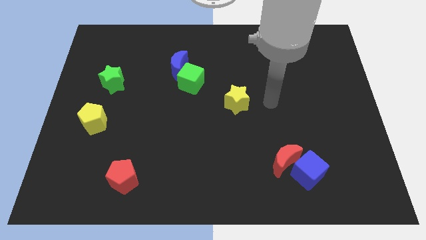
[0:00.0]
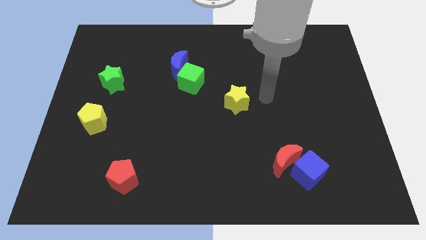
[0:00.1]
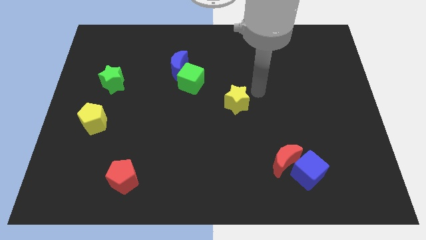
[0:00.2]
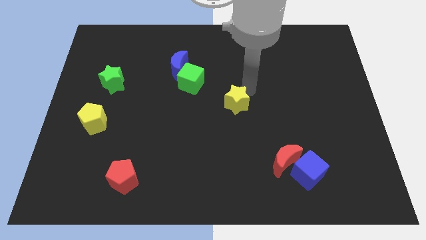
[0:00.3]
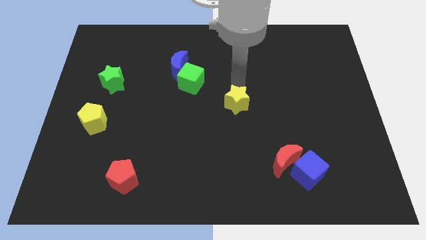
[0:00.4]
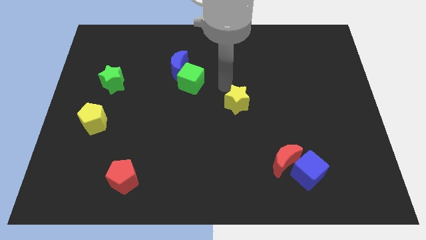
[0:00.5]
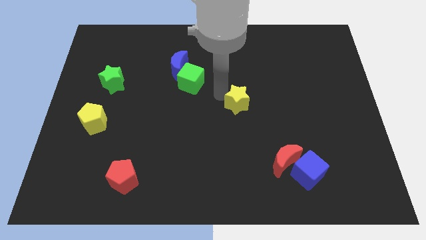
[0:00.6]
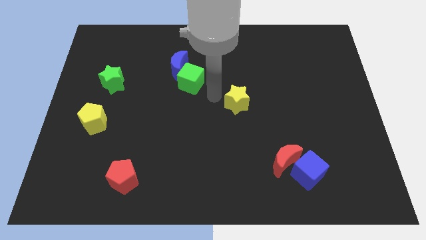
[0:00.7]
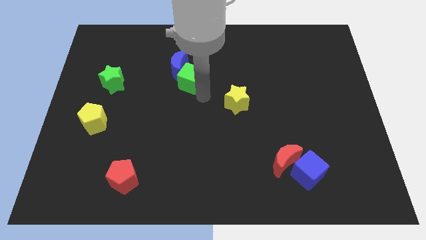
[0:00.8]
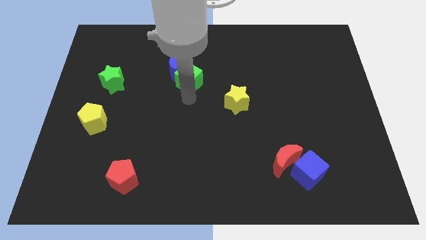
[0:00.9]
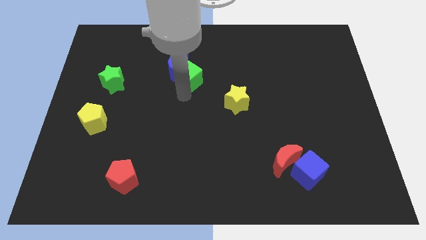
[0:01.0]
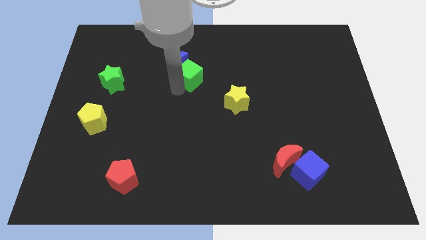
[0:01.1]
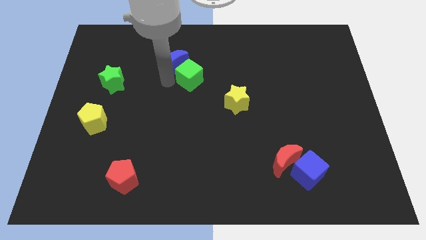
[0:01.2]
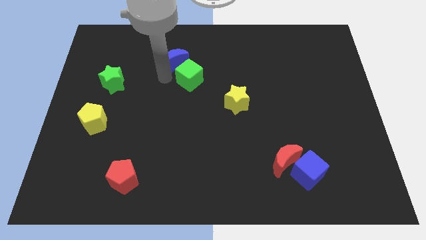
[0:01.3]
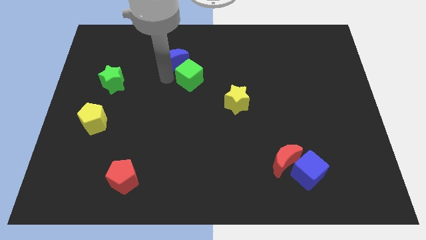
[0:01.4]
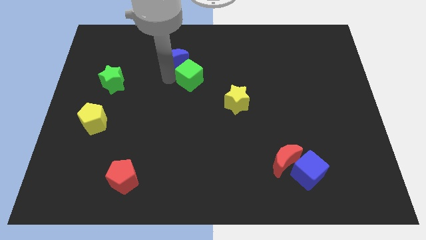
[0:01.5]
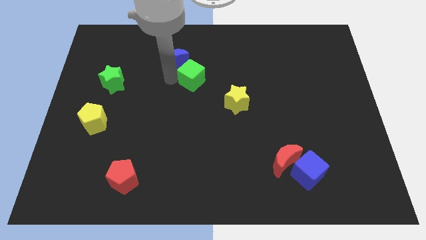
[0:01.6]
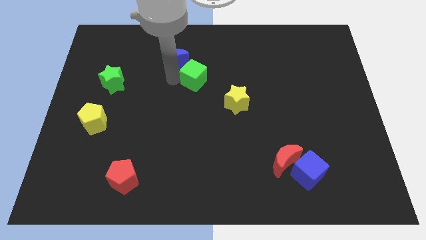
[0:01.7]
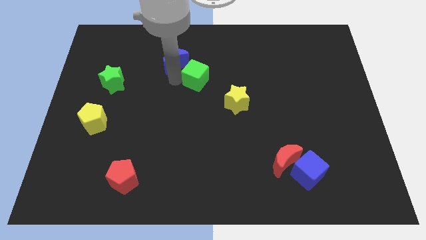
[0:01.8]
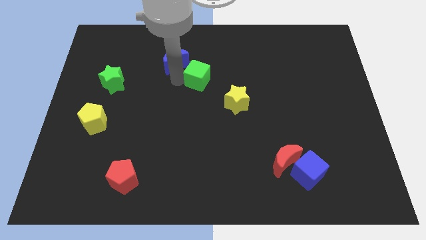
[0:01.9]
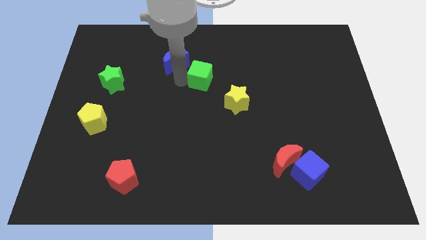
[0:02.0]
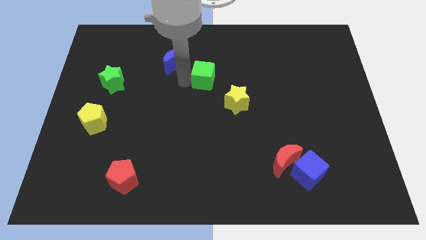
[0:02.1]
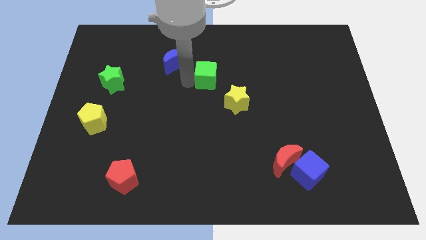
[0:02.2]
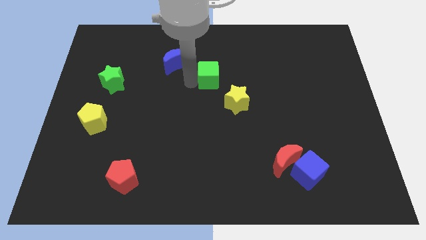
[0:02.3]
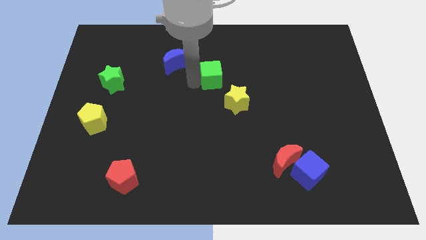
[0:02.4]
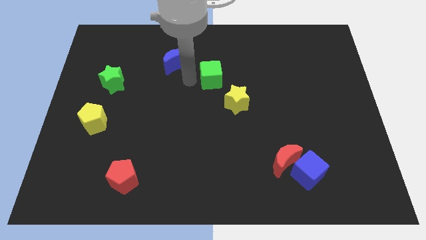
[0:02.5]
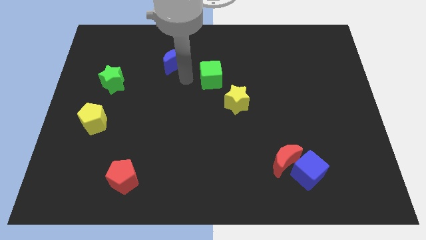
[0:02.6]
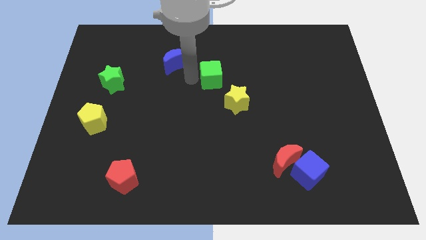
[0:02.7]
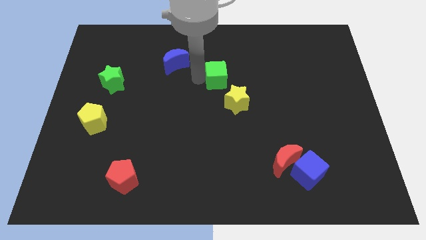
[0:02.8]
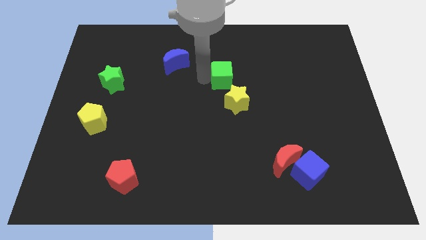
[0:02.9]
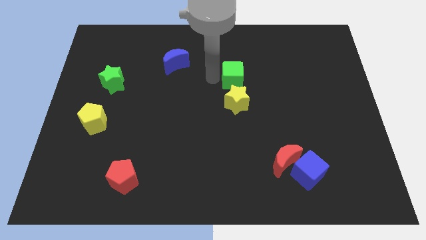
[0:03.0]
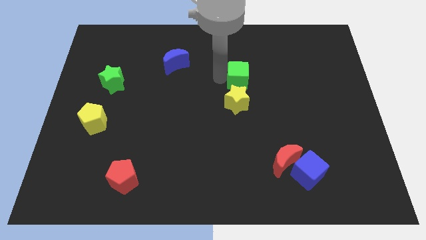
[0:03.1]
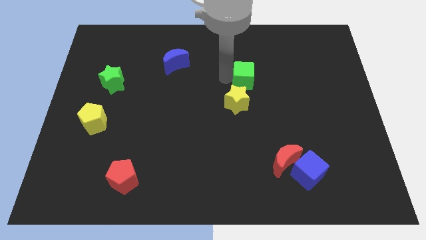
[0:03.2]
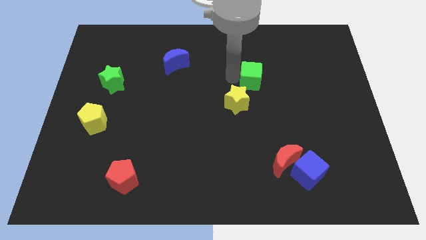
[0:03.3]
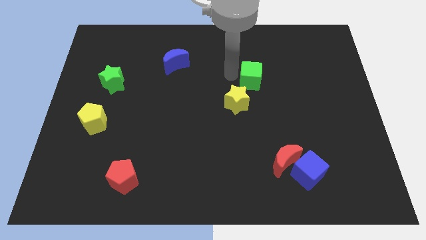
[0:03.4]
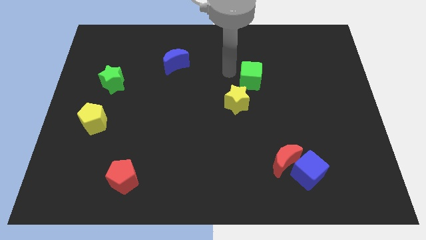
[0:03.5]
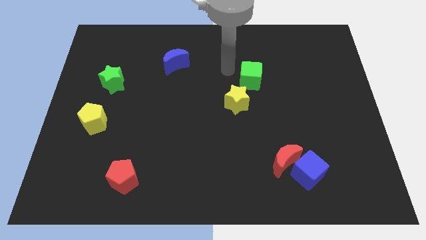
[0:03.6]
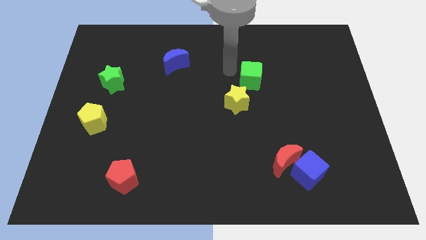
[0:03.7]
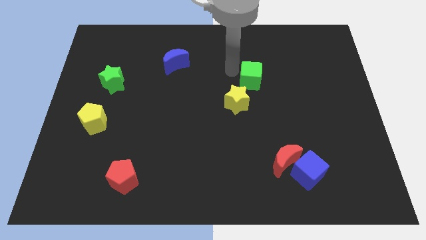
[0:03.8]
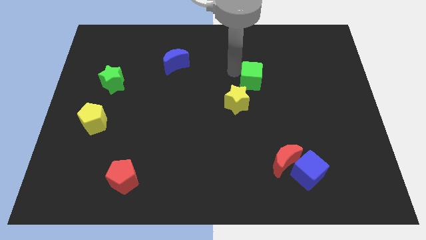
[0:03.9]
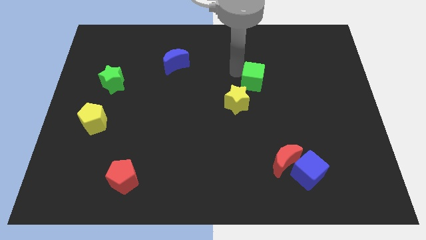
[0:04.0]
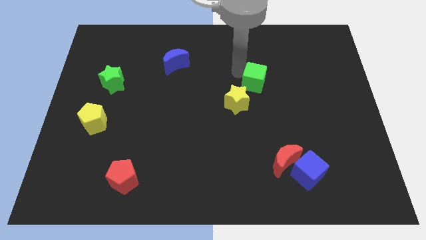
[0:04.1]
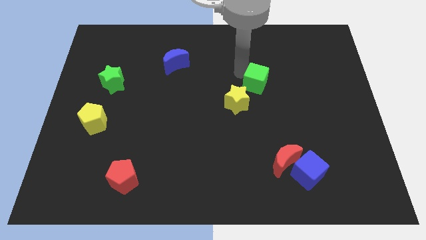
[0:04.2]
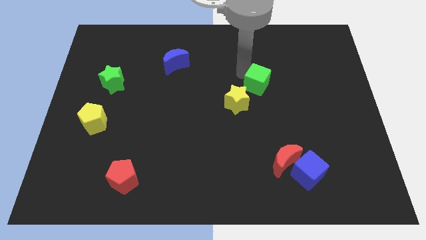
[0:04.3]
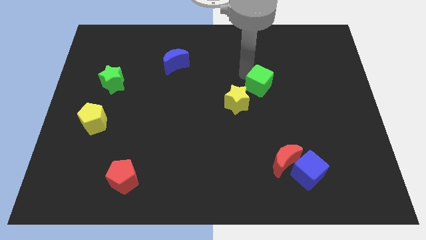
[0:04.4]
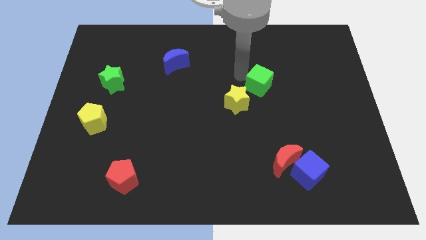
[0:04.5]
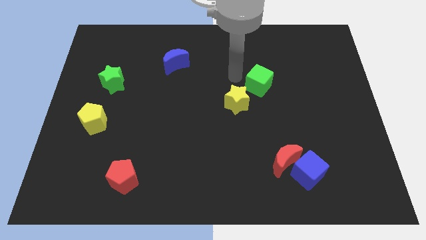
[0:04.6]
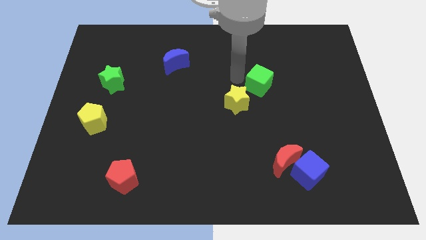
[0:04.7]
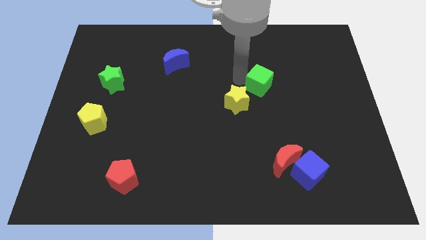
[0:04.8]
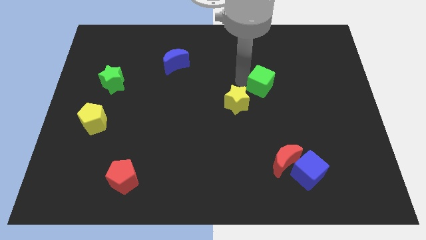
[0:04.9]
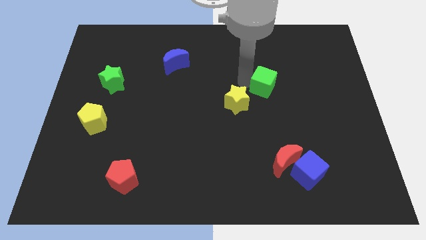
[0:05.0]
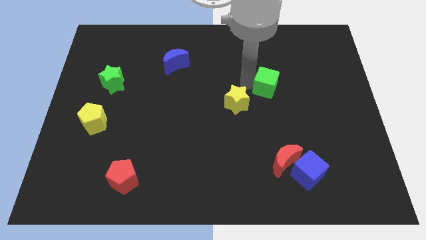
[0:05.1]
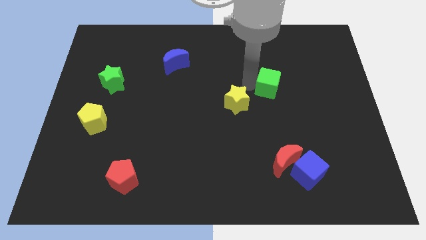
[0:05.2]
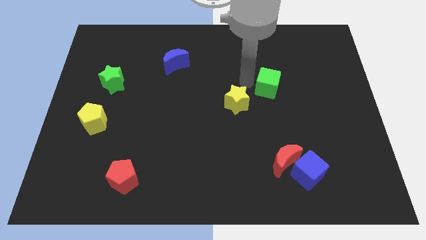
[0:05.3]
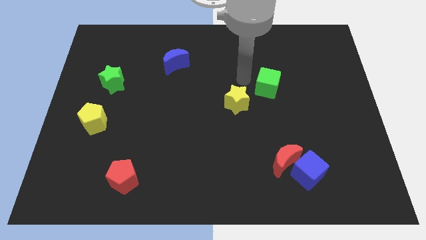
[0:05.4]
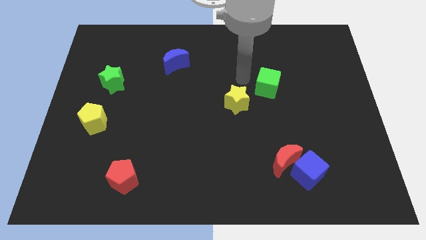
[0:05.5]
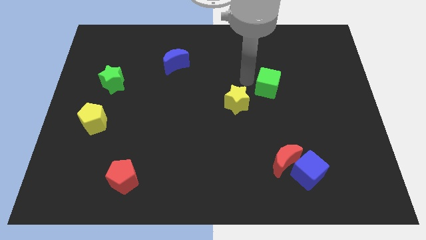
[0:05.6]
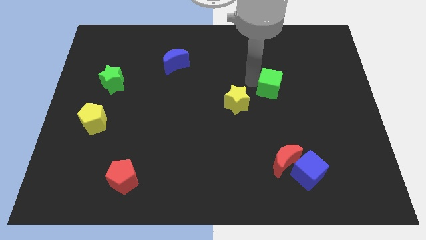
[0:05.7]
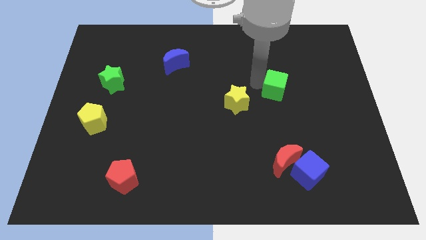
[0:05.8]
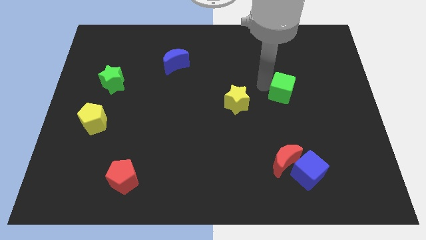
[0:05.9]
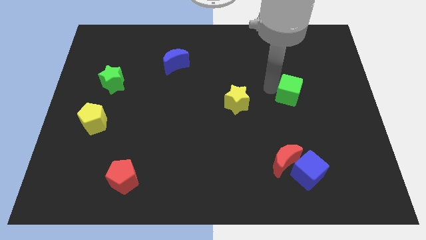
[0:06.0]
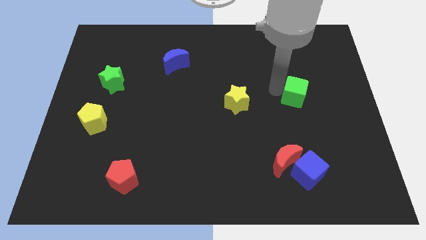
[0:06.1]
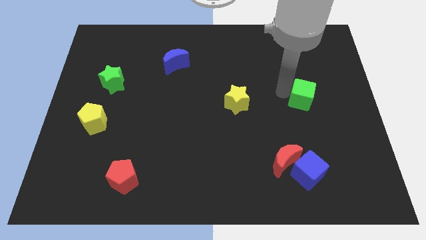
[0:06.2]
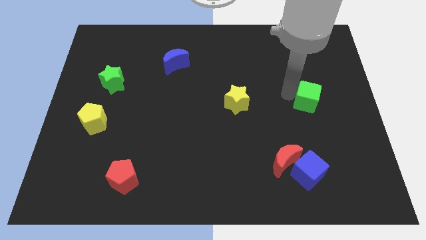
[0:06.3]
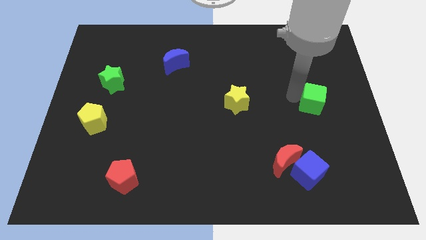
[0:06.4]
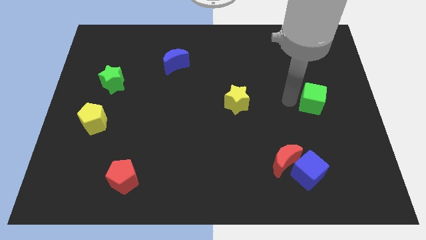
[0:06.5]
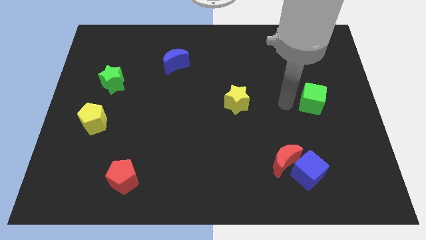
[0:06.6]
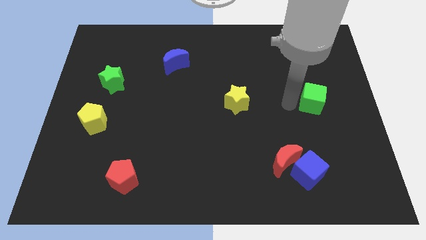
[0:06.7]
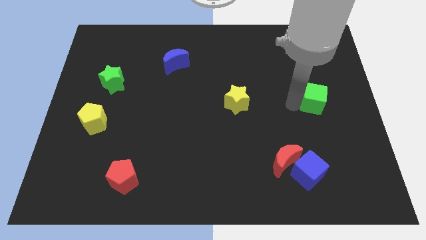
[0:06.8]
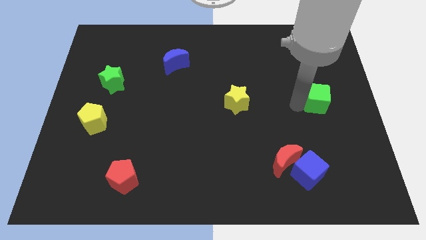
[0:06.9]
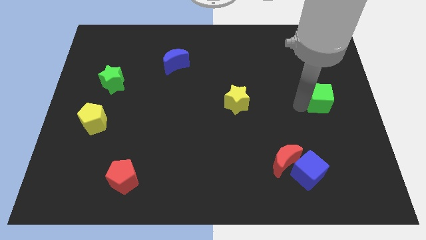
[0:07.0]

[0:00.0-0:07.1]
put the green cube to the center right
